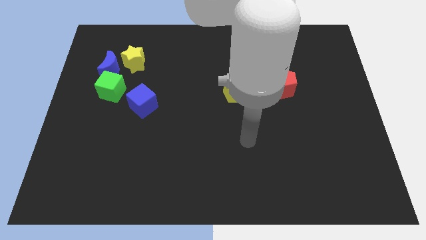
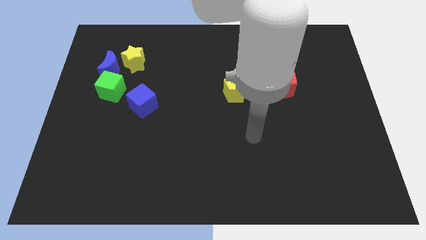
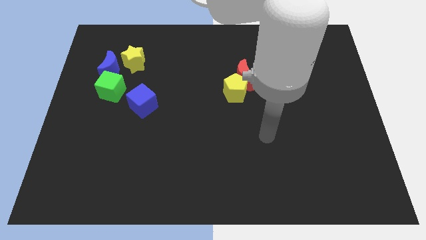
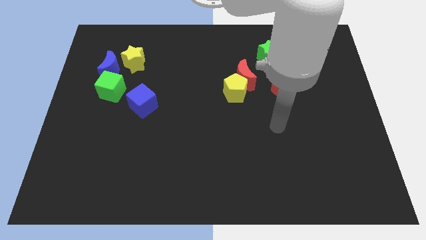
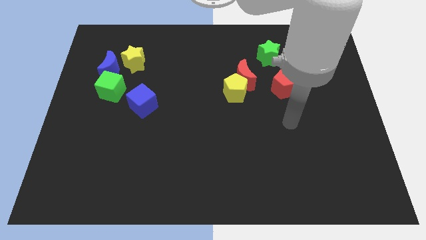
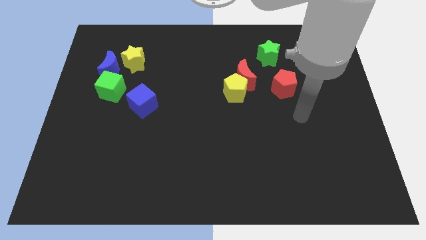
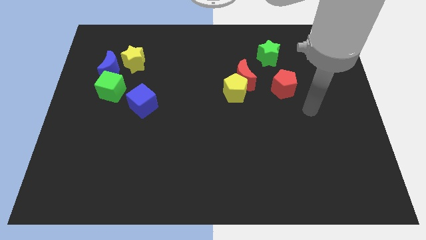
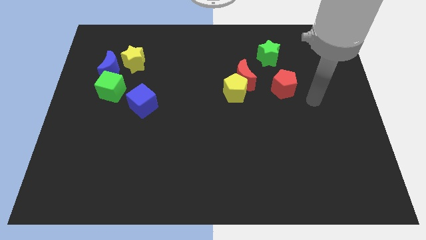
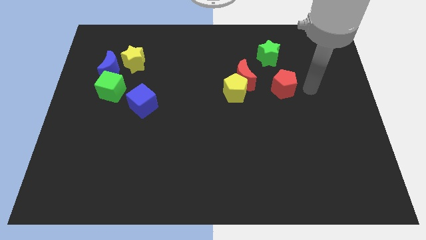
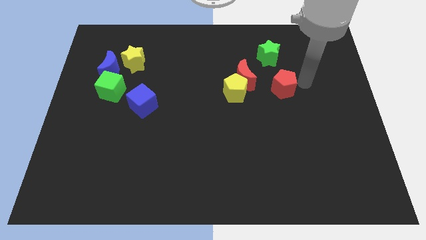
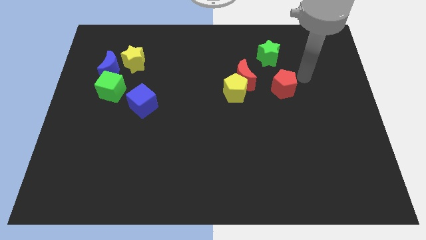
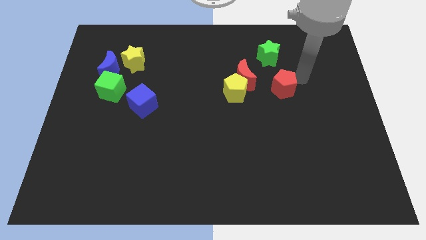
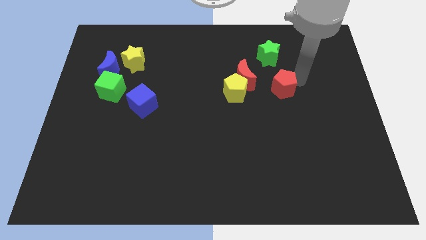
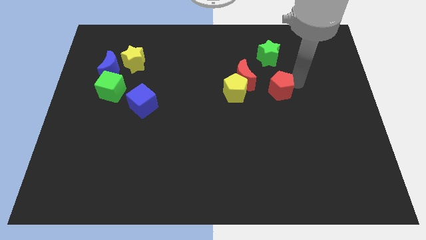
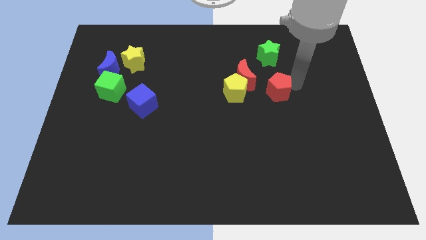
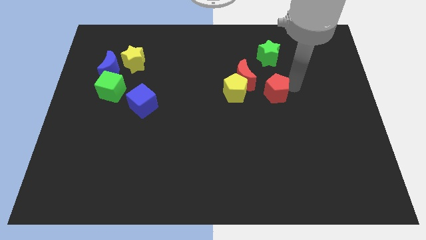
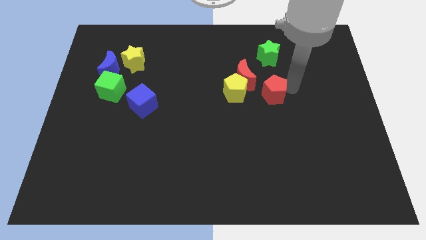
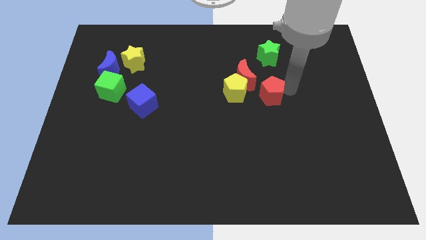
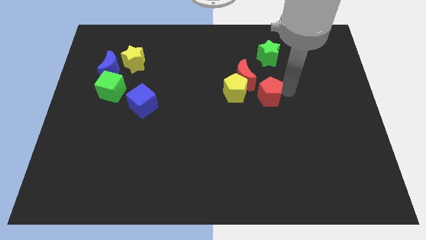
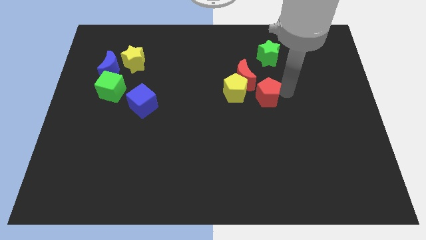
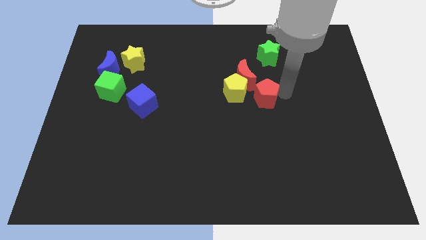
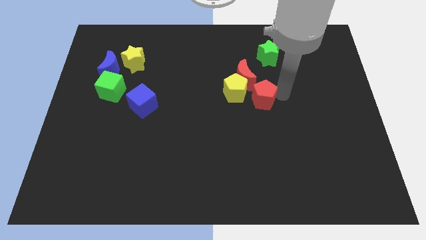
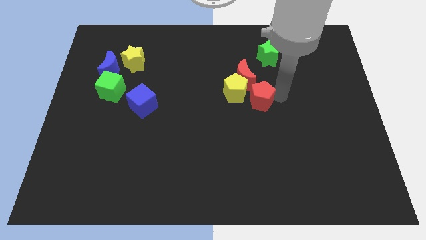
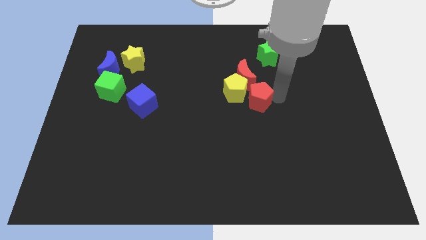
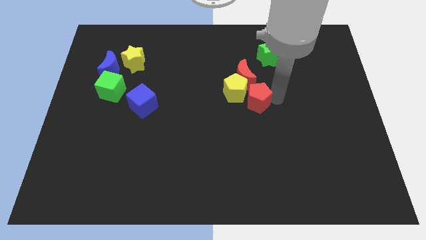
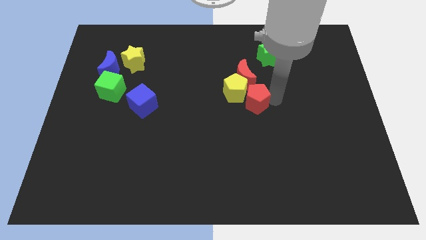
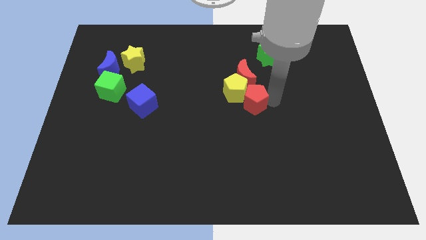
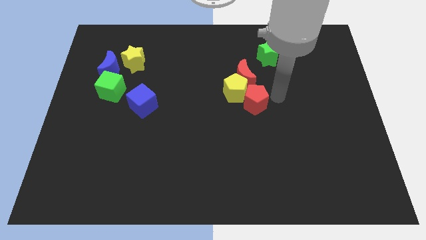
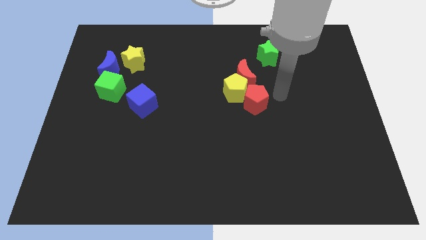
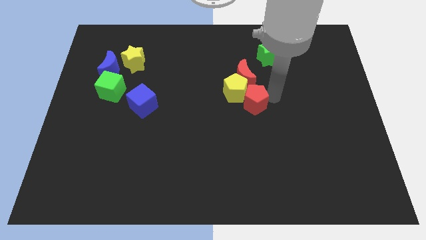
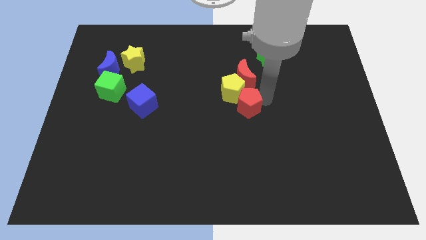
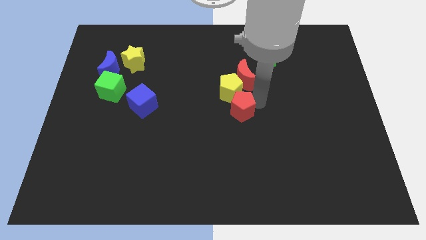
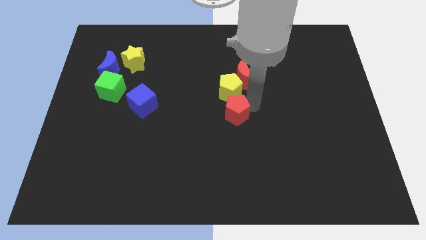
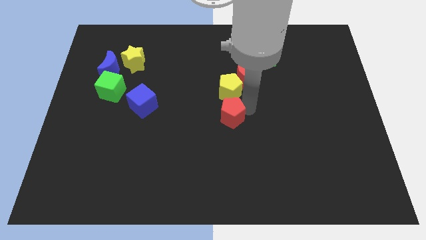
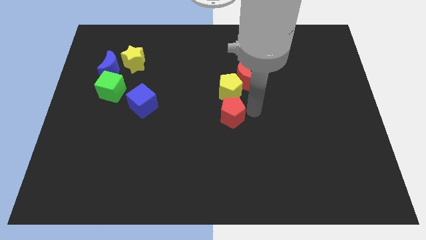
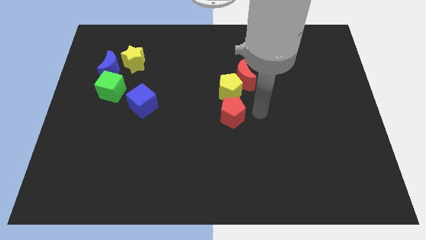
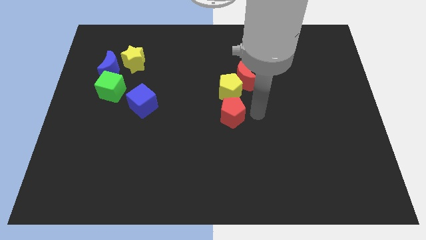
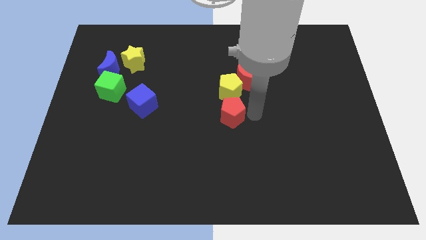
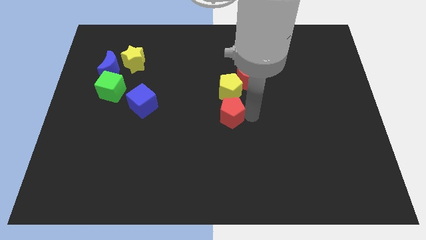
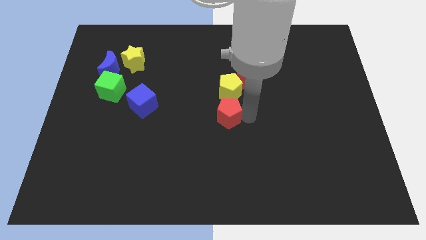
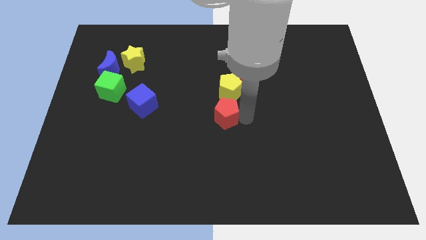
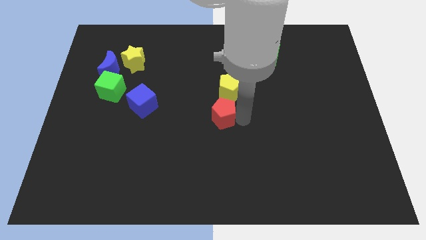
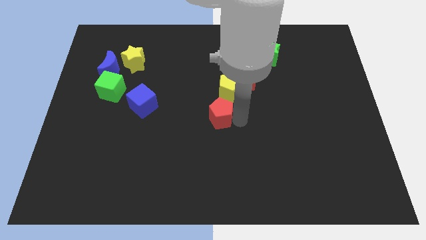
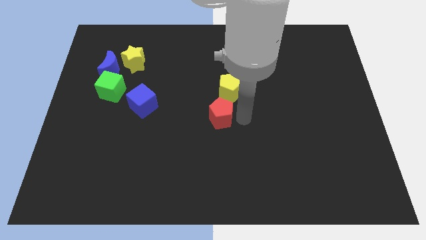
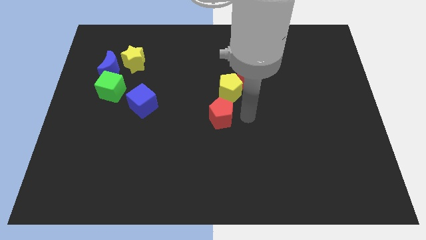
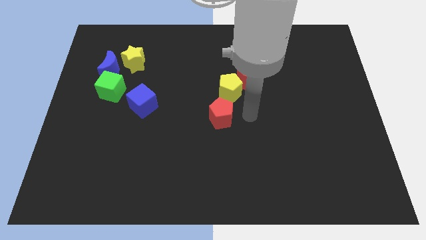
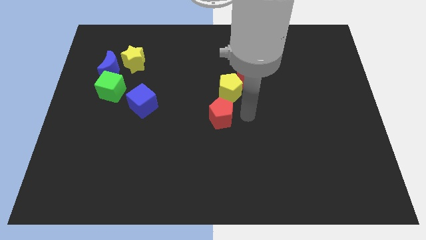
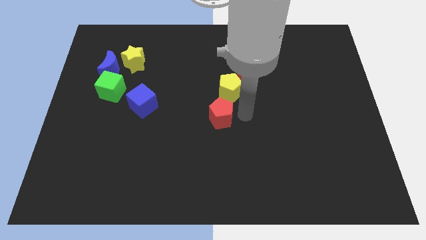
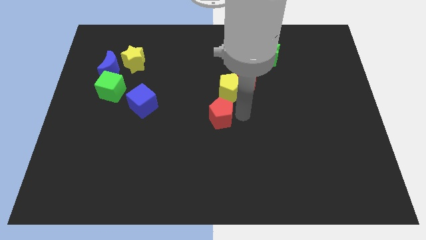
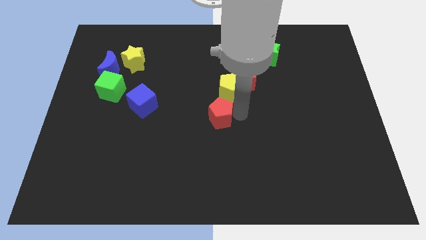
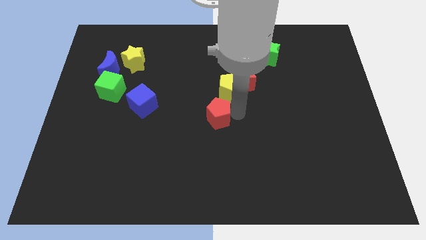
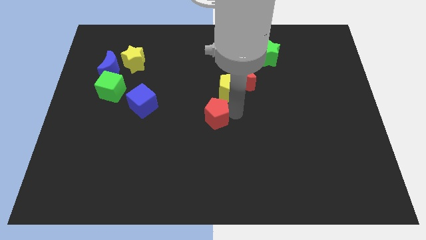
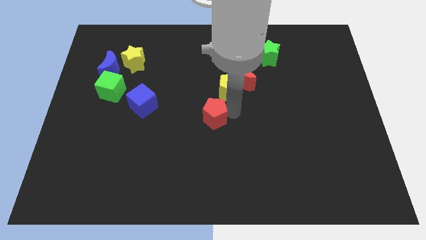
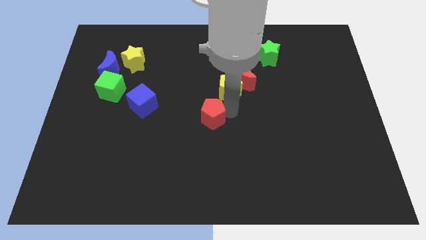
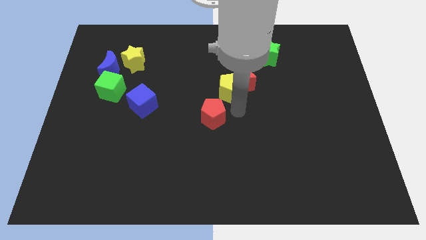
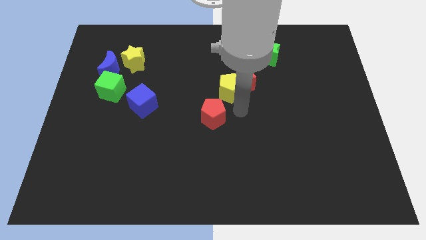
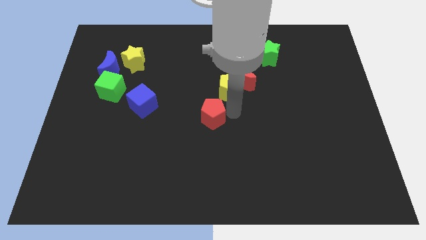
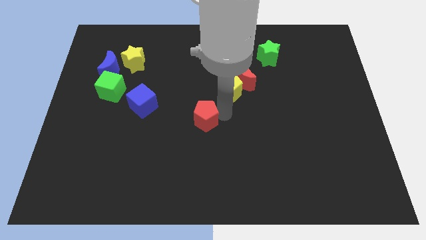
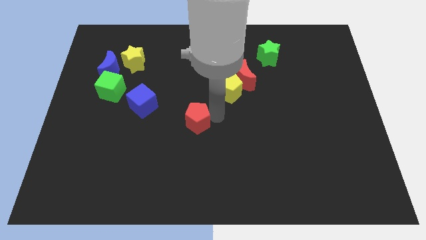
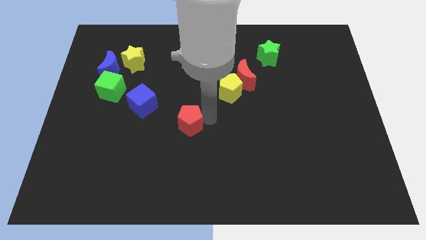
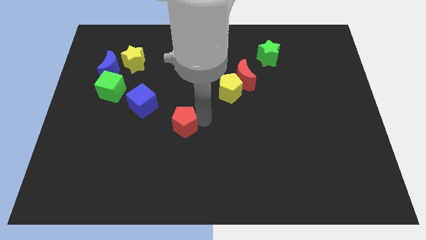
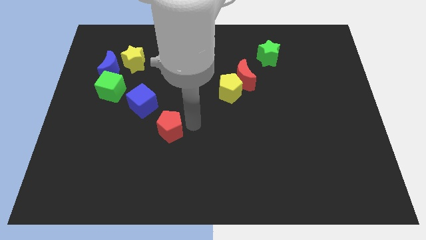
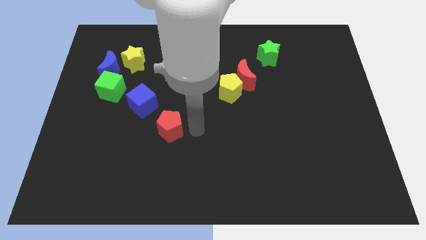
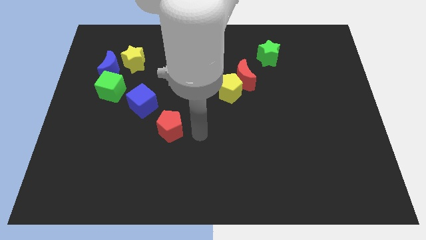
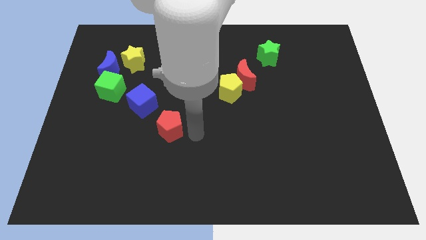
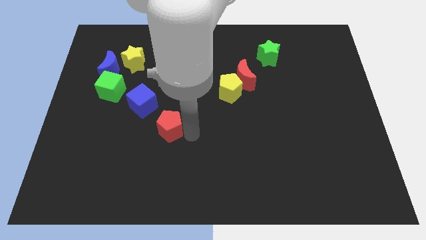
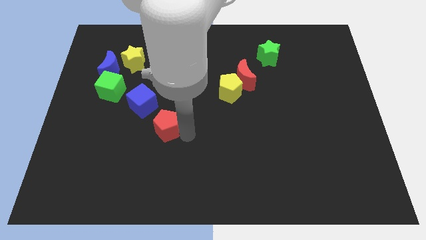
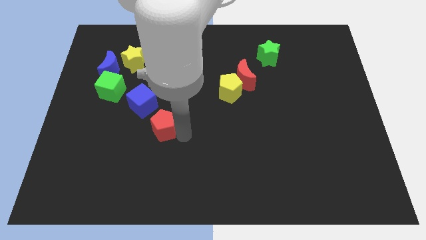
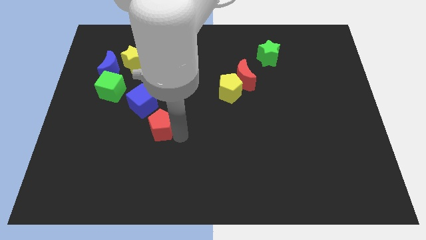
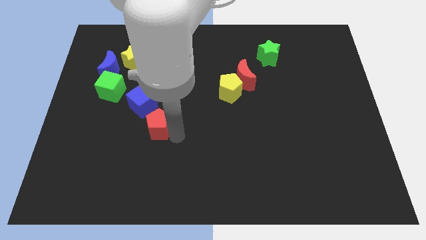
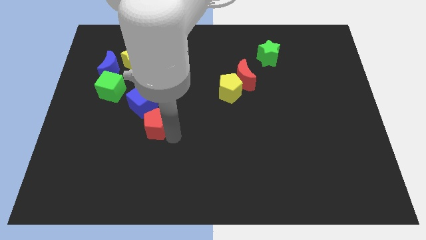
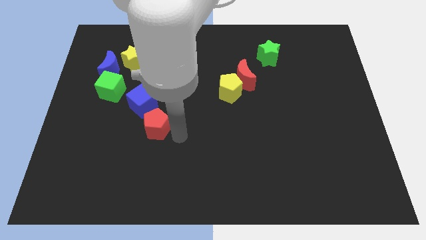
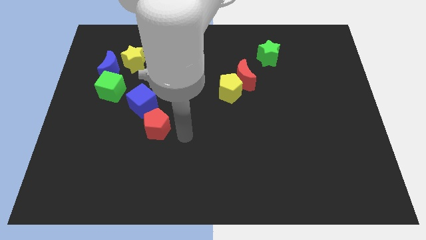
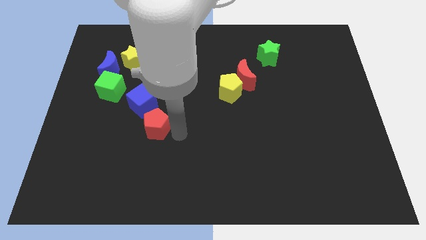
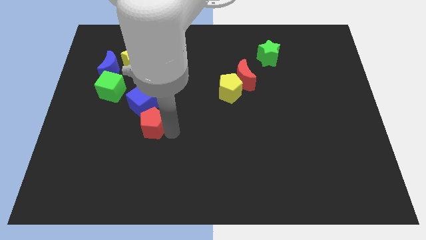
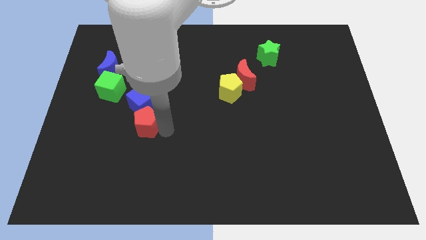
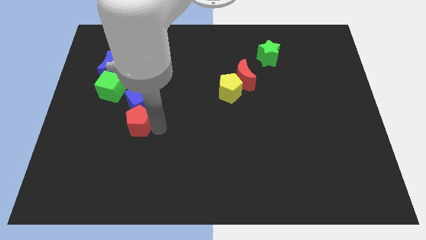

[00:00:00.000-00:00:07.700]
push the red pentagon diagonally down and to the left of the blue cube
